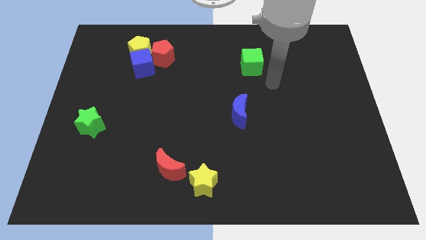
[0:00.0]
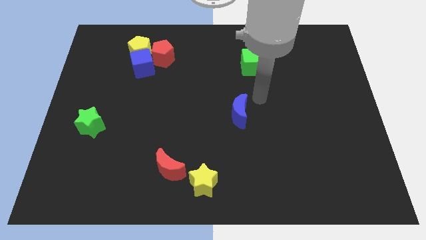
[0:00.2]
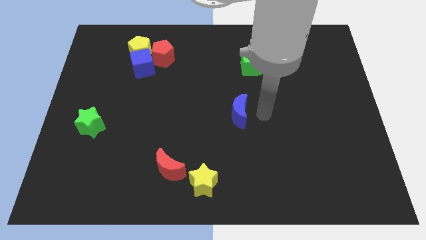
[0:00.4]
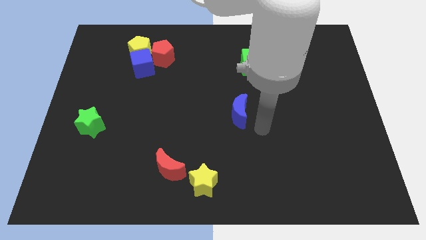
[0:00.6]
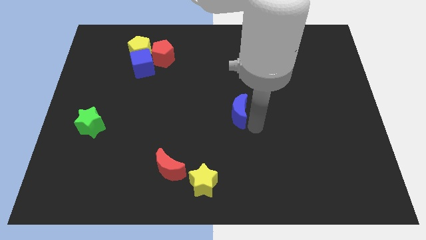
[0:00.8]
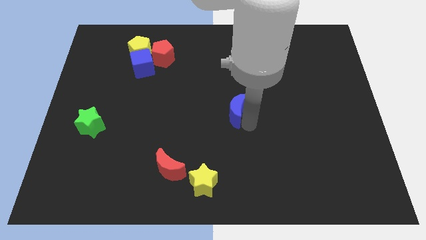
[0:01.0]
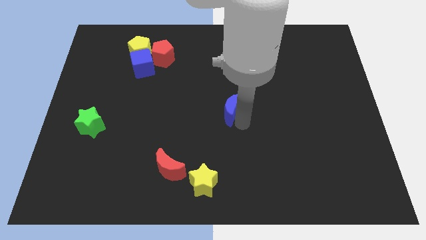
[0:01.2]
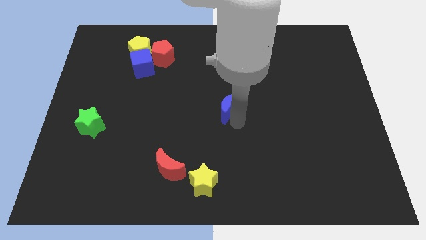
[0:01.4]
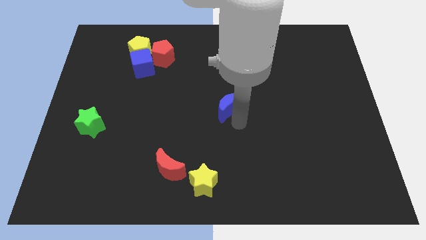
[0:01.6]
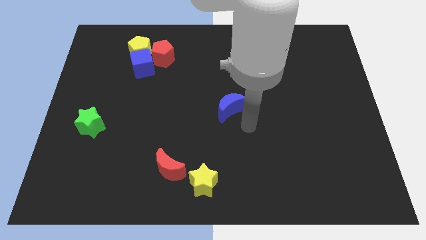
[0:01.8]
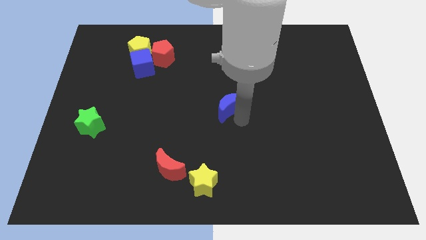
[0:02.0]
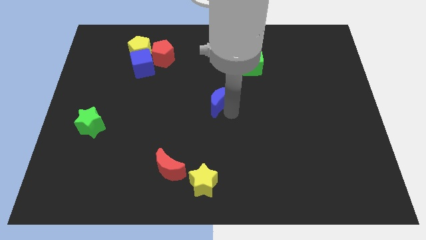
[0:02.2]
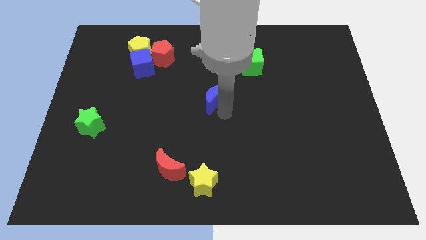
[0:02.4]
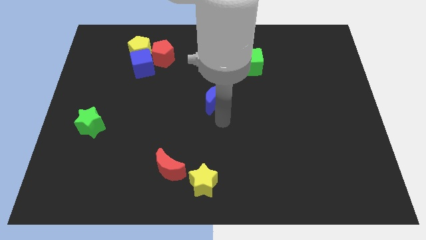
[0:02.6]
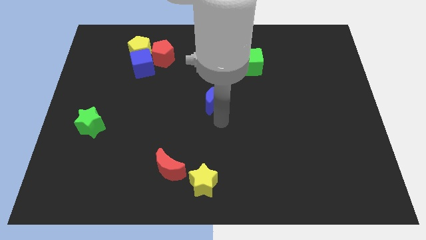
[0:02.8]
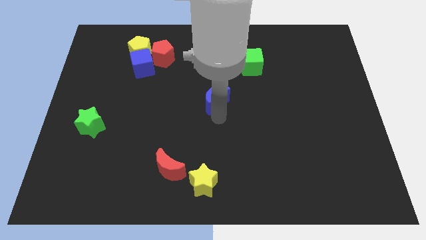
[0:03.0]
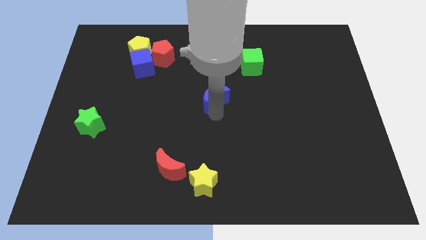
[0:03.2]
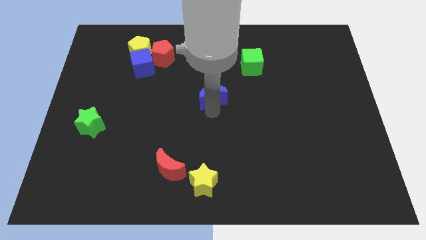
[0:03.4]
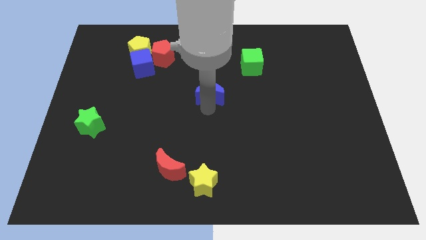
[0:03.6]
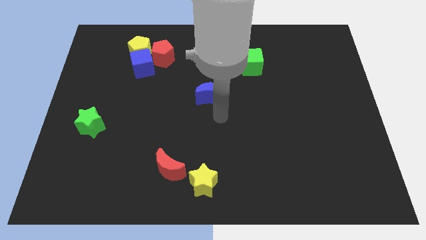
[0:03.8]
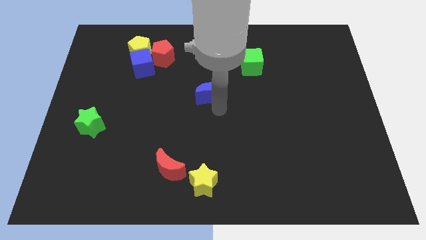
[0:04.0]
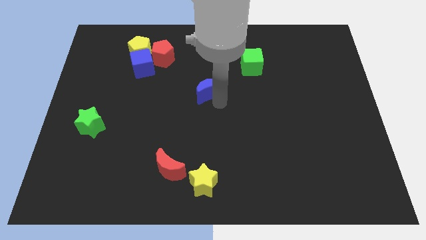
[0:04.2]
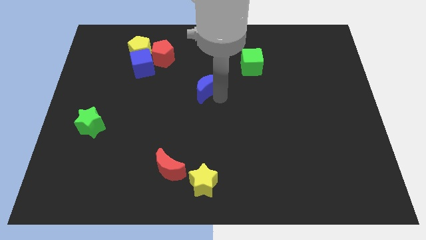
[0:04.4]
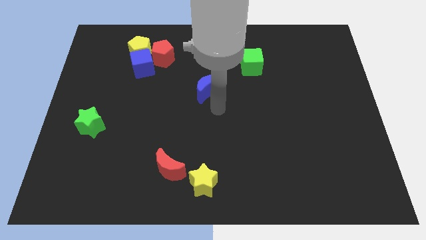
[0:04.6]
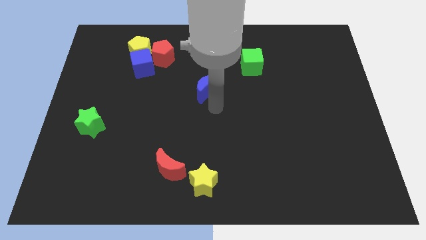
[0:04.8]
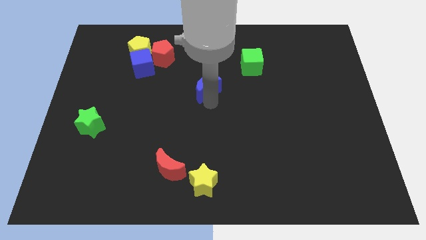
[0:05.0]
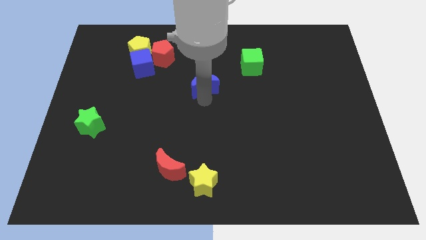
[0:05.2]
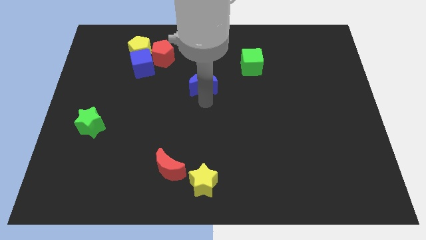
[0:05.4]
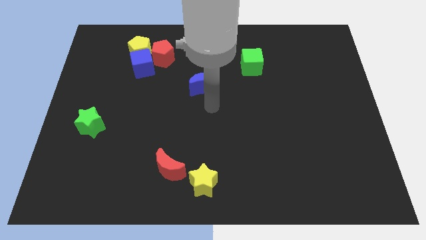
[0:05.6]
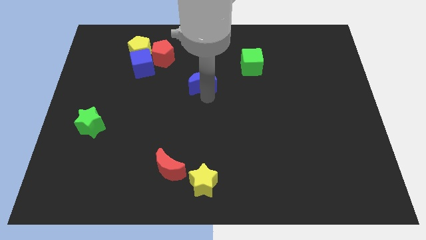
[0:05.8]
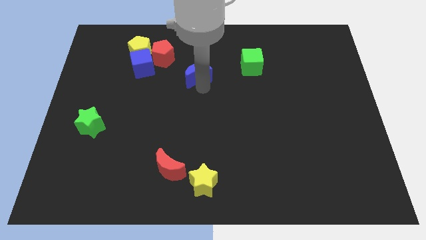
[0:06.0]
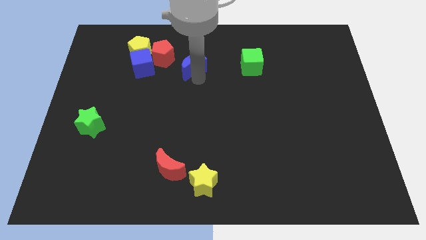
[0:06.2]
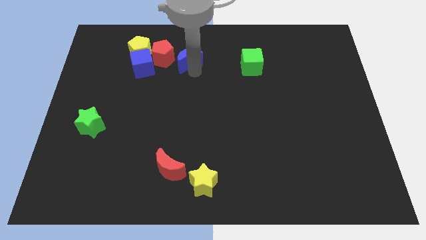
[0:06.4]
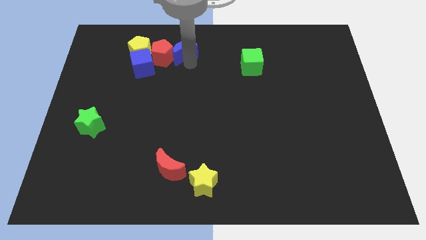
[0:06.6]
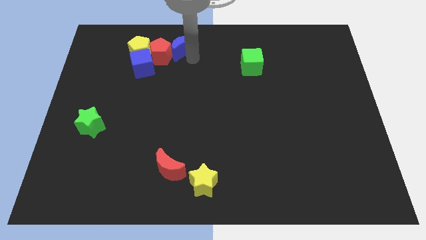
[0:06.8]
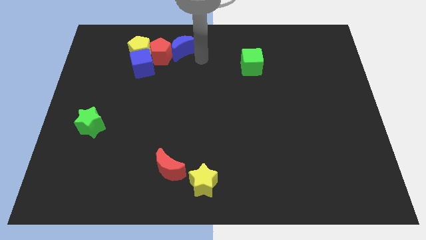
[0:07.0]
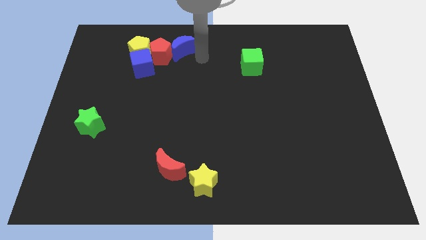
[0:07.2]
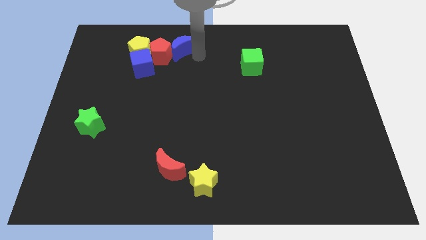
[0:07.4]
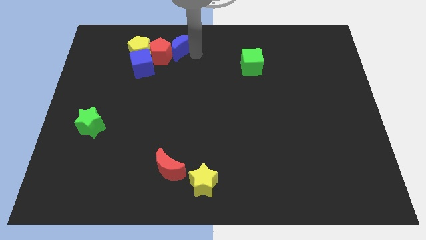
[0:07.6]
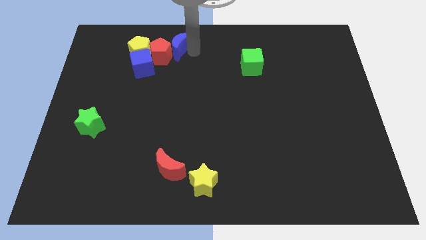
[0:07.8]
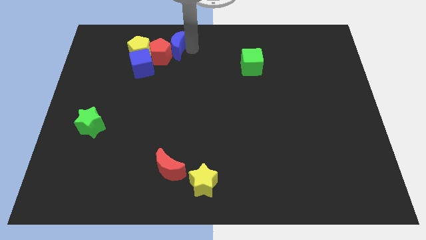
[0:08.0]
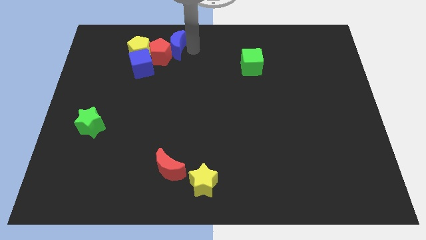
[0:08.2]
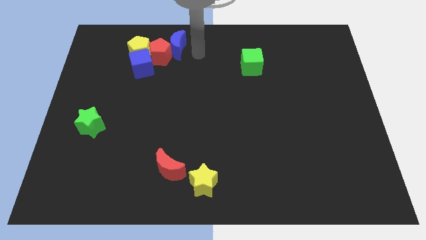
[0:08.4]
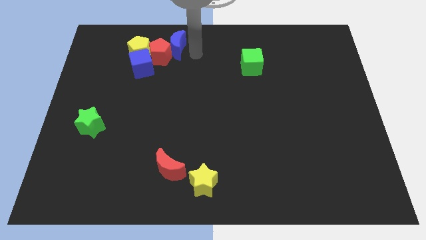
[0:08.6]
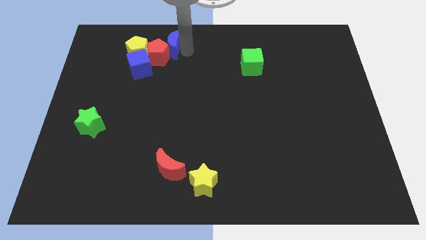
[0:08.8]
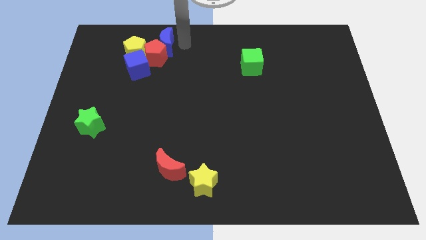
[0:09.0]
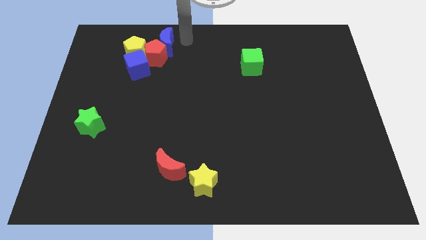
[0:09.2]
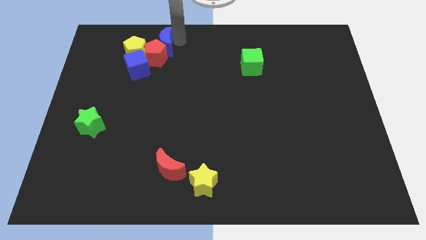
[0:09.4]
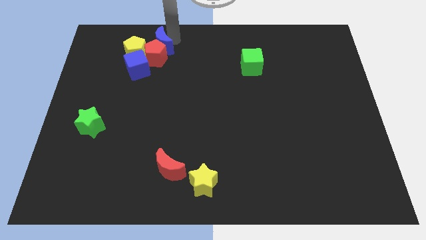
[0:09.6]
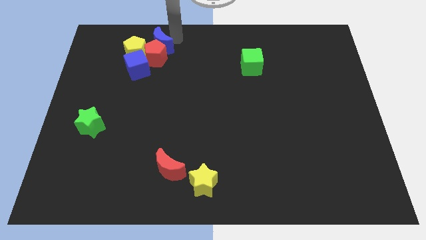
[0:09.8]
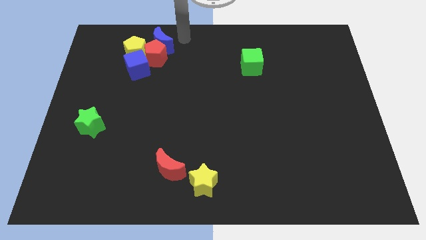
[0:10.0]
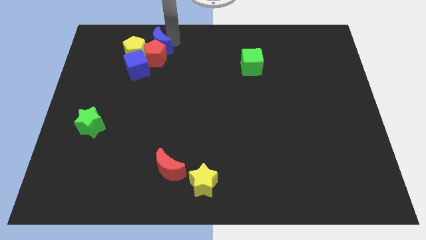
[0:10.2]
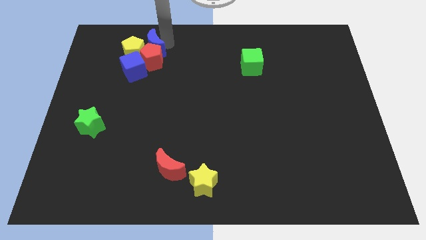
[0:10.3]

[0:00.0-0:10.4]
push the blue moon next to the yellow pentagon

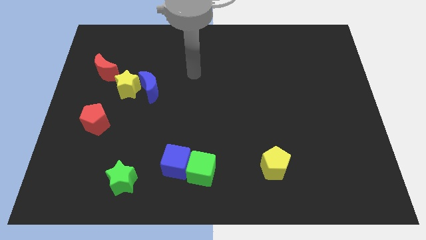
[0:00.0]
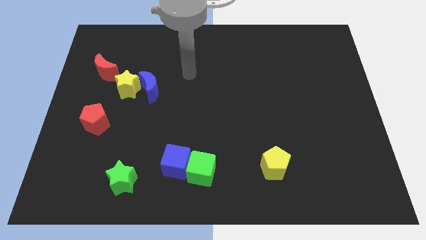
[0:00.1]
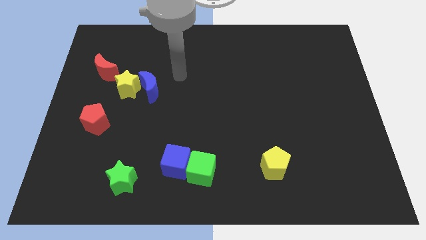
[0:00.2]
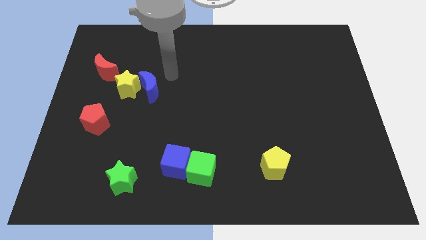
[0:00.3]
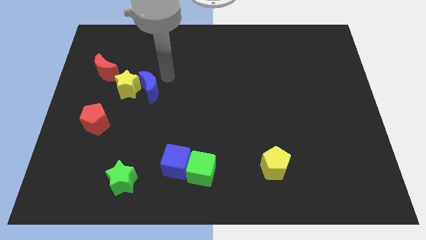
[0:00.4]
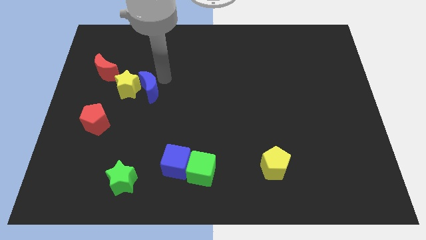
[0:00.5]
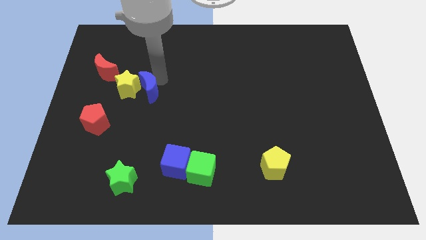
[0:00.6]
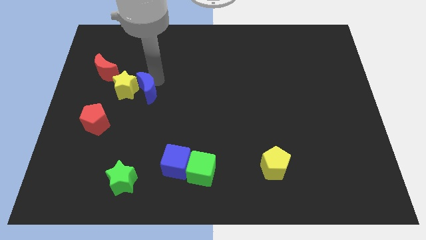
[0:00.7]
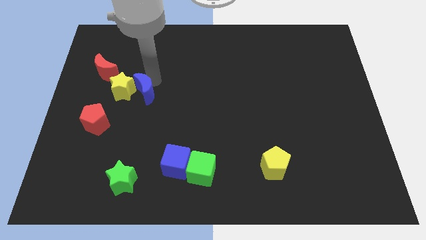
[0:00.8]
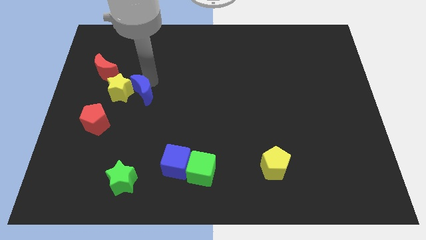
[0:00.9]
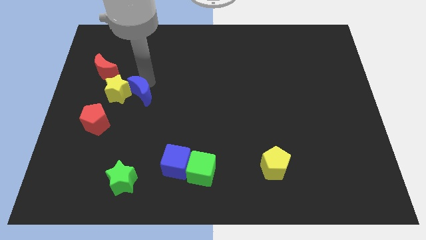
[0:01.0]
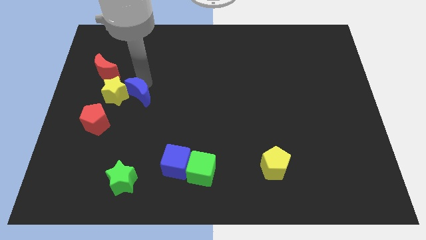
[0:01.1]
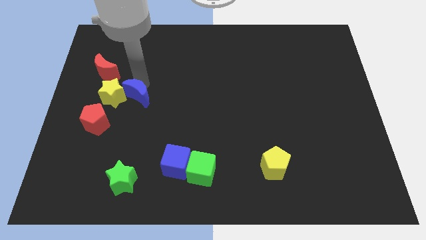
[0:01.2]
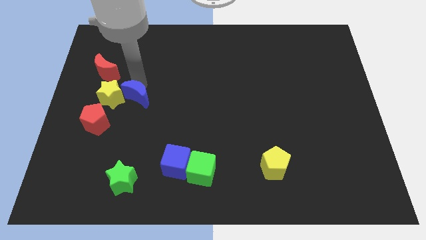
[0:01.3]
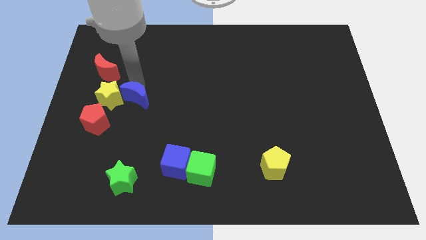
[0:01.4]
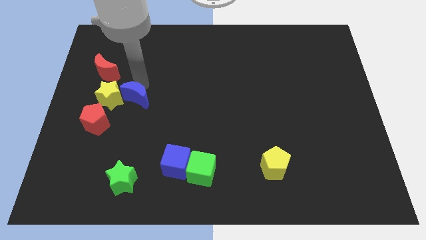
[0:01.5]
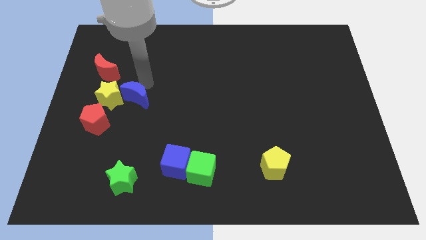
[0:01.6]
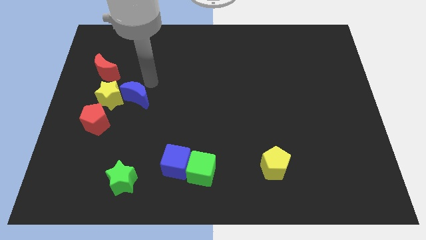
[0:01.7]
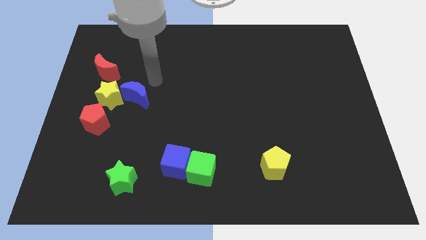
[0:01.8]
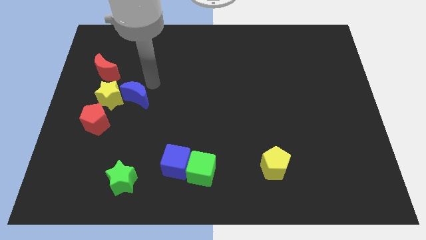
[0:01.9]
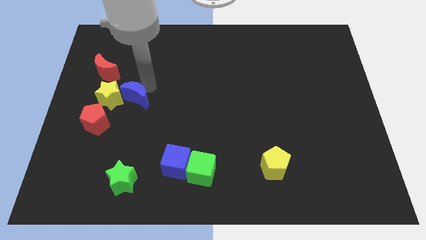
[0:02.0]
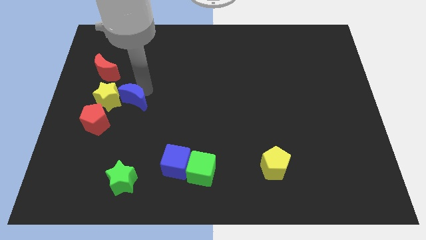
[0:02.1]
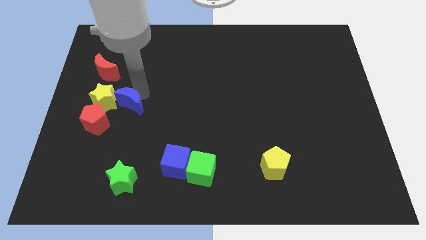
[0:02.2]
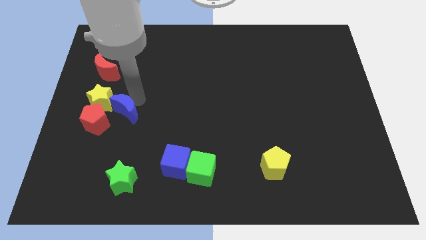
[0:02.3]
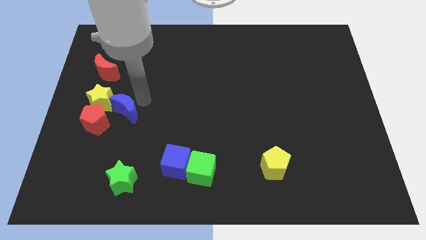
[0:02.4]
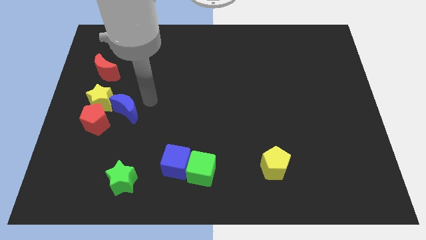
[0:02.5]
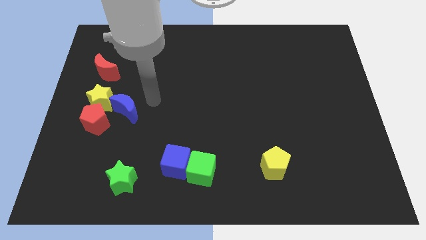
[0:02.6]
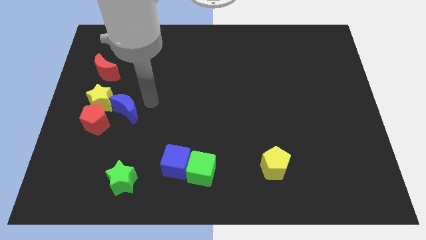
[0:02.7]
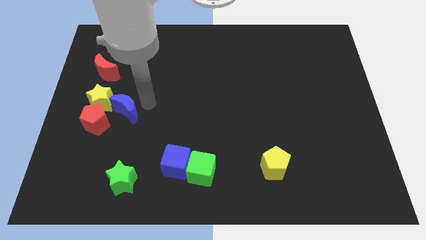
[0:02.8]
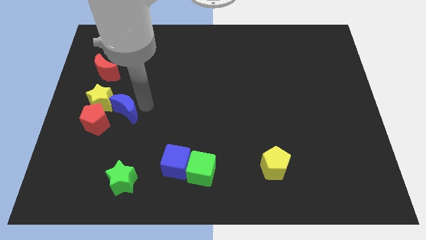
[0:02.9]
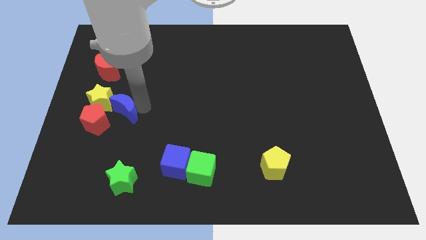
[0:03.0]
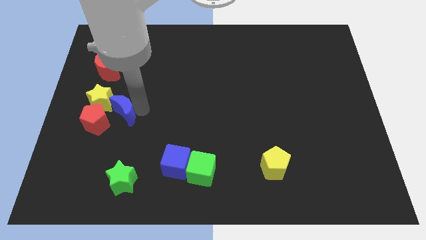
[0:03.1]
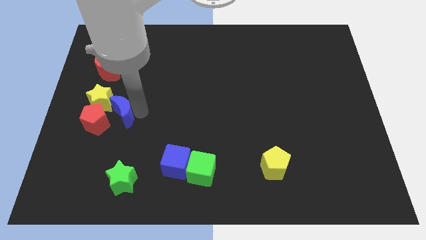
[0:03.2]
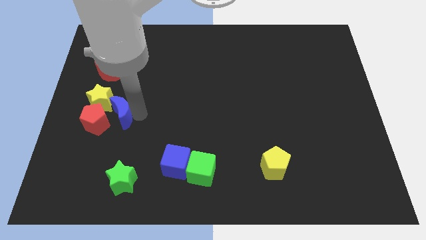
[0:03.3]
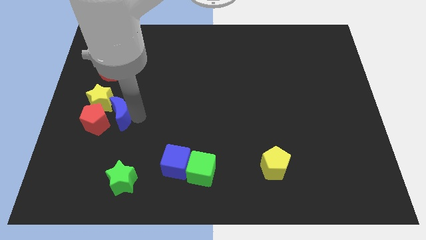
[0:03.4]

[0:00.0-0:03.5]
push the blue moon towards the red pentagon
